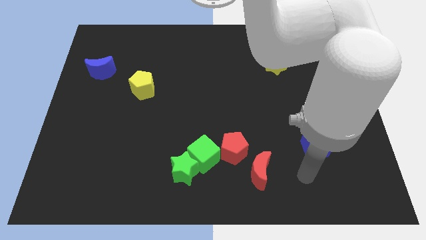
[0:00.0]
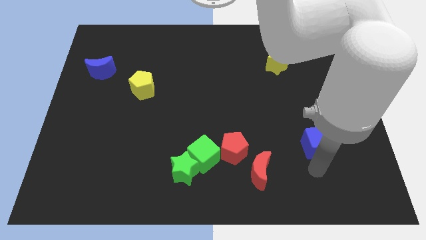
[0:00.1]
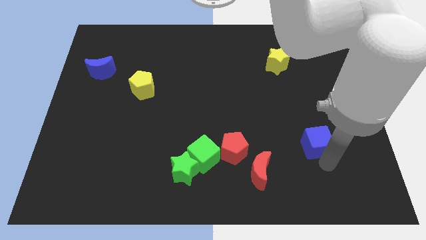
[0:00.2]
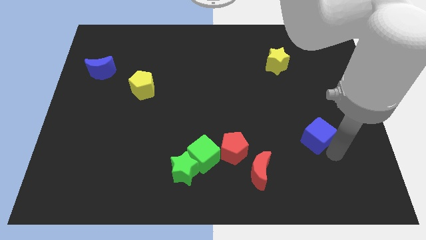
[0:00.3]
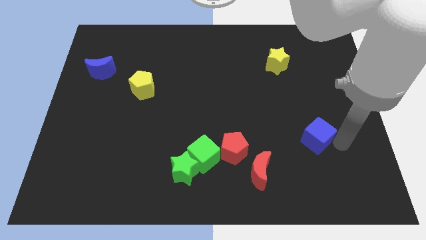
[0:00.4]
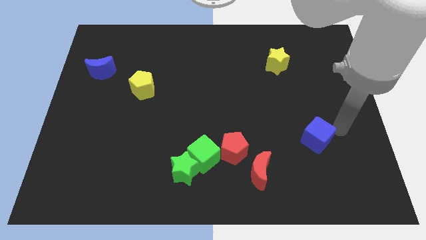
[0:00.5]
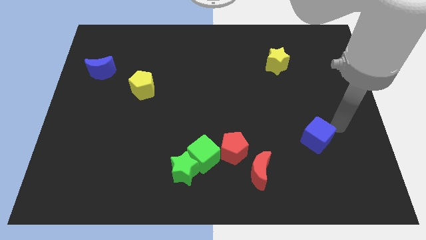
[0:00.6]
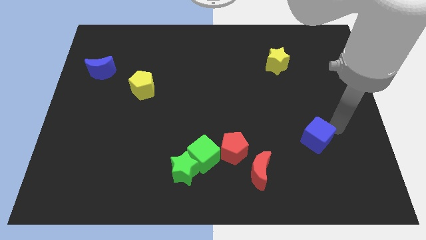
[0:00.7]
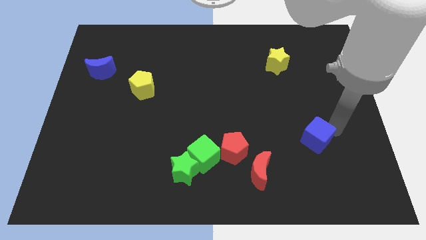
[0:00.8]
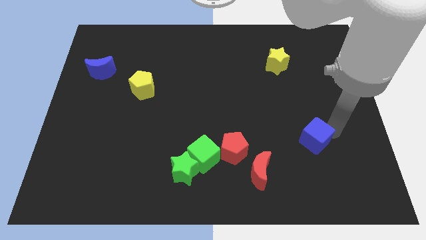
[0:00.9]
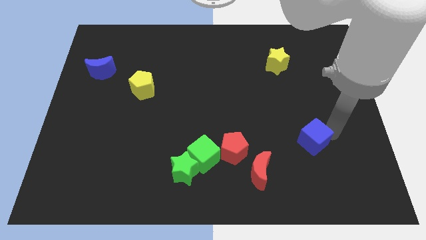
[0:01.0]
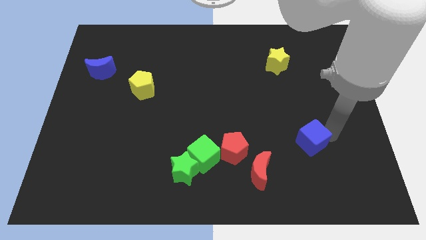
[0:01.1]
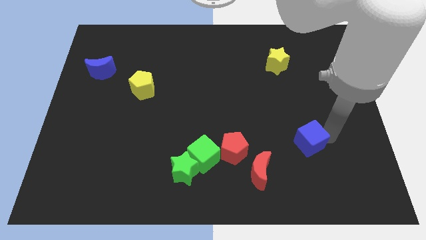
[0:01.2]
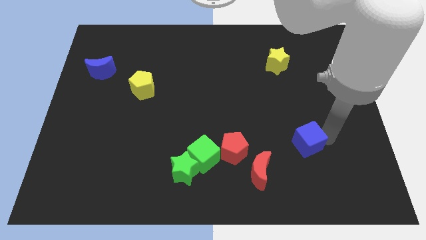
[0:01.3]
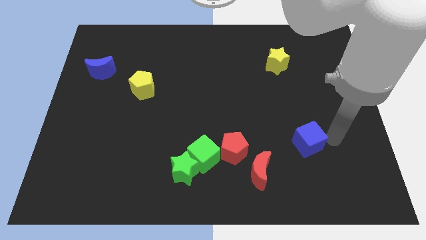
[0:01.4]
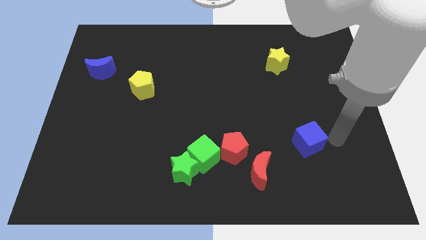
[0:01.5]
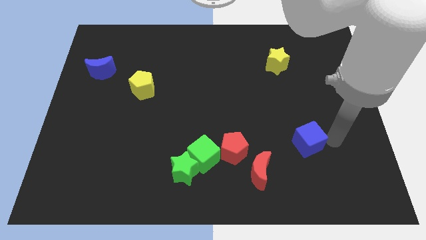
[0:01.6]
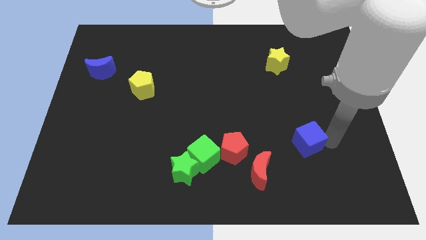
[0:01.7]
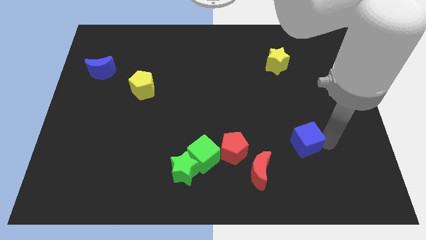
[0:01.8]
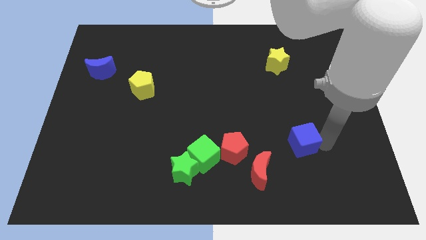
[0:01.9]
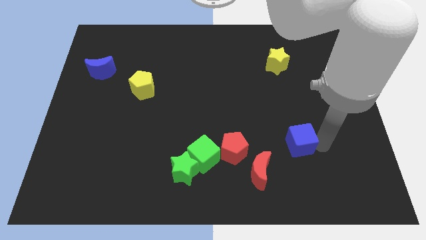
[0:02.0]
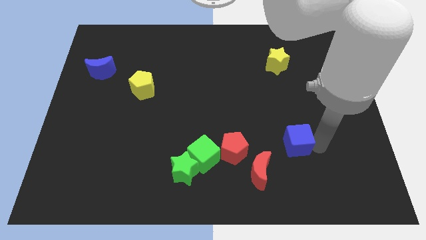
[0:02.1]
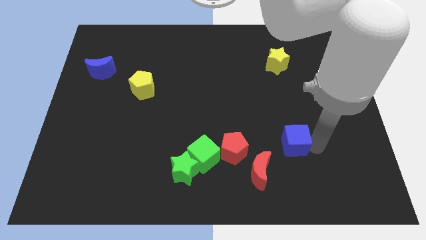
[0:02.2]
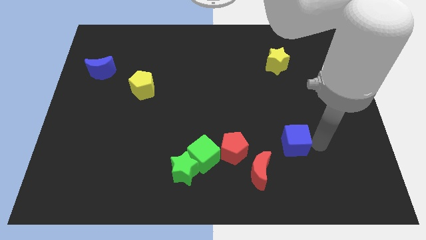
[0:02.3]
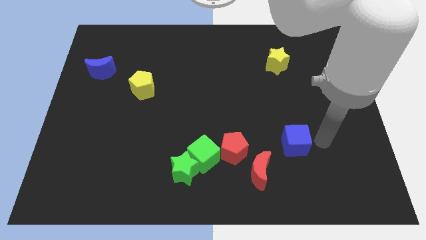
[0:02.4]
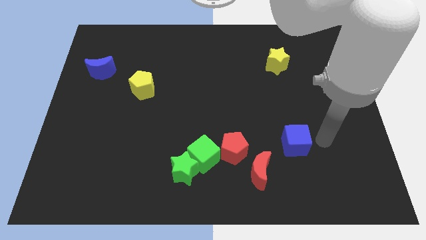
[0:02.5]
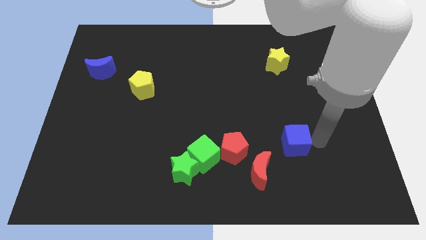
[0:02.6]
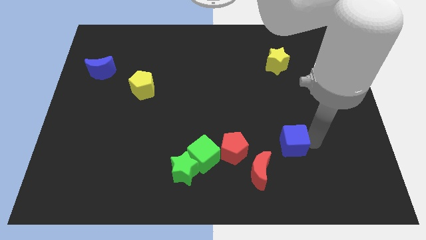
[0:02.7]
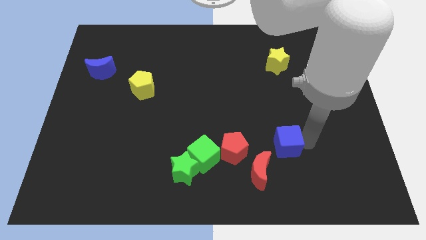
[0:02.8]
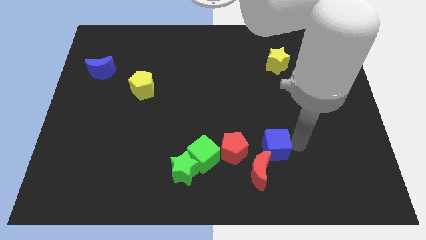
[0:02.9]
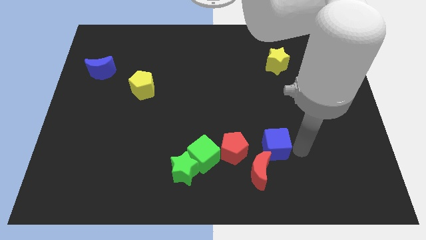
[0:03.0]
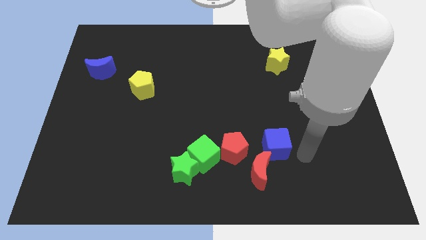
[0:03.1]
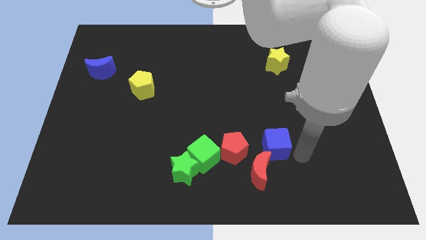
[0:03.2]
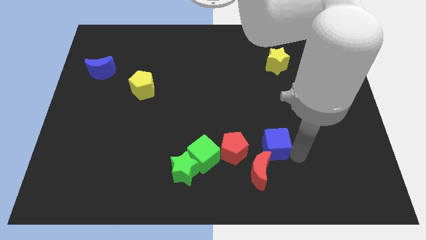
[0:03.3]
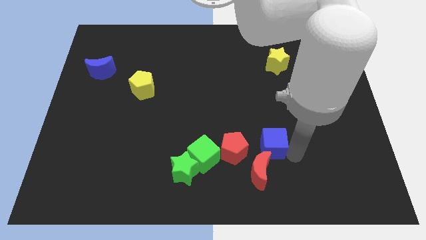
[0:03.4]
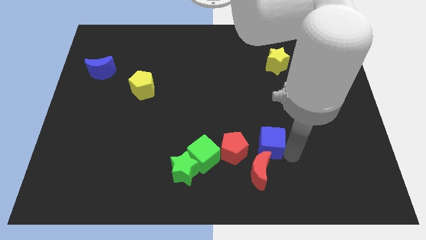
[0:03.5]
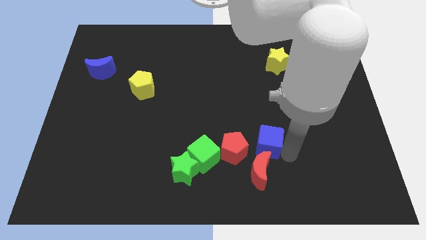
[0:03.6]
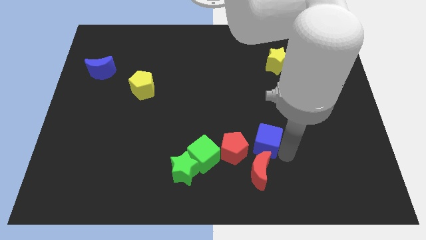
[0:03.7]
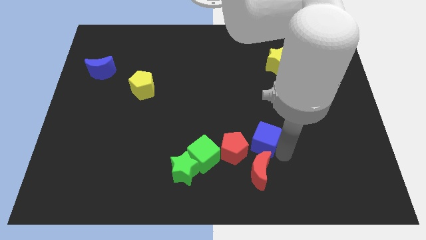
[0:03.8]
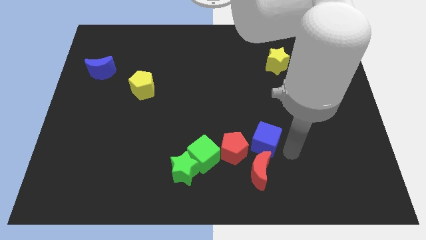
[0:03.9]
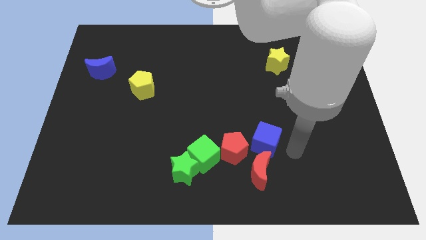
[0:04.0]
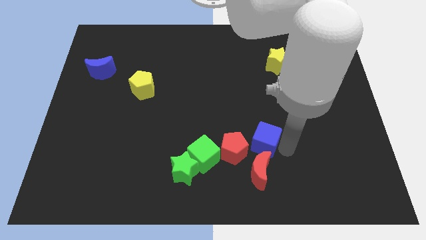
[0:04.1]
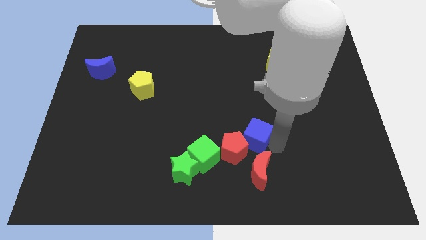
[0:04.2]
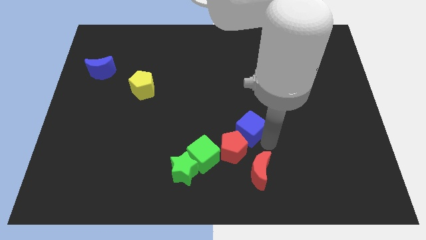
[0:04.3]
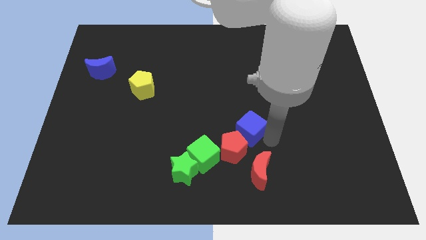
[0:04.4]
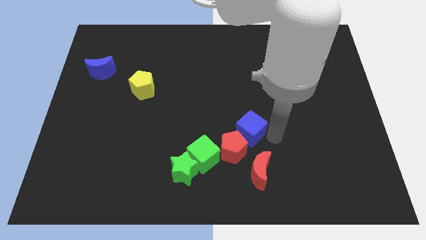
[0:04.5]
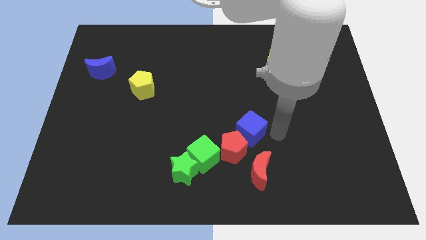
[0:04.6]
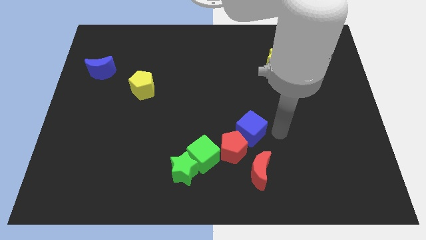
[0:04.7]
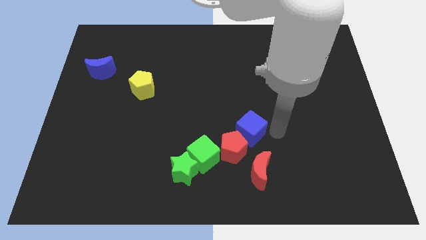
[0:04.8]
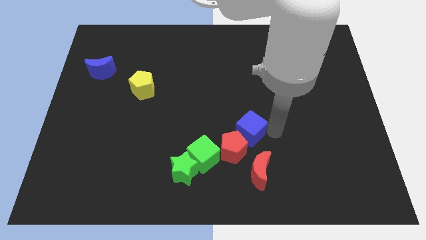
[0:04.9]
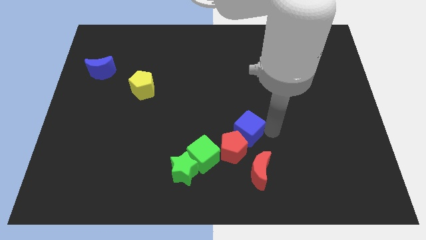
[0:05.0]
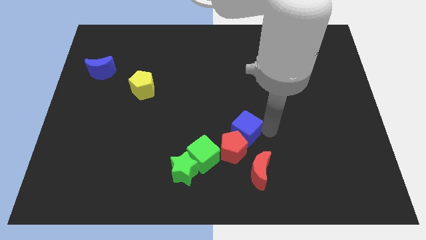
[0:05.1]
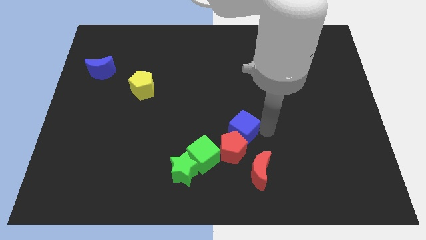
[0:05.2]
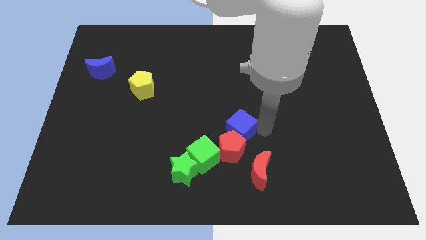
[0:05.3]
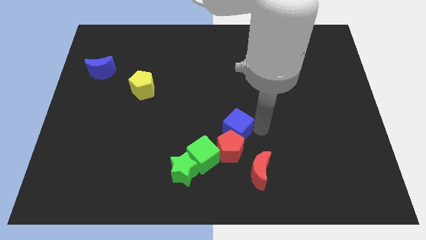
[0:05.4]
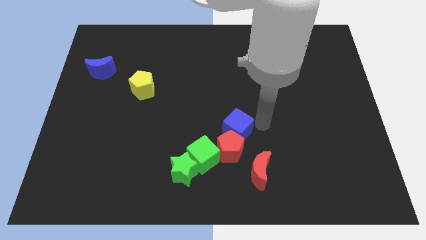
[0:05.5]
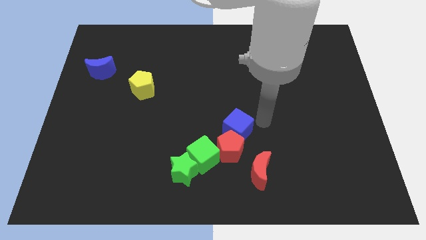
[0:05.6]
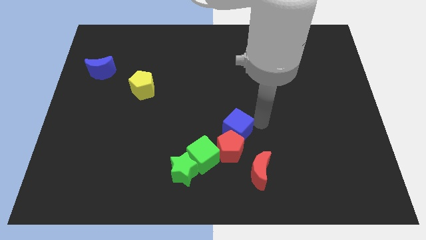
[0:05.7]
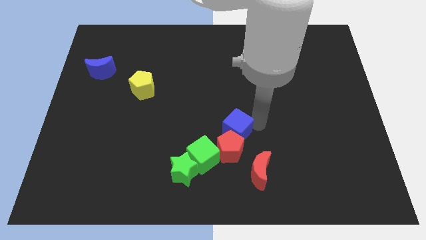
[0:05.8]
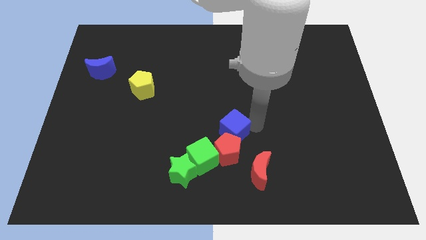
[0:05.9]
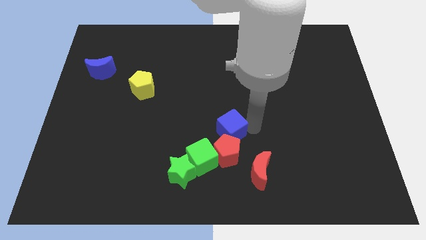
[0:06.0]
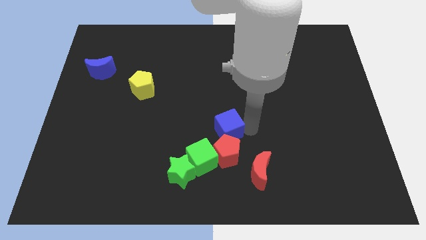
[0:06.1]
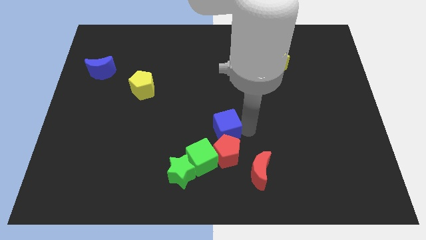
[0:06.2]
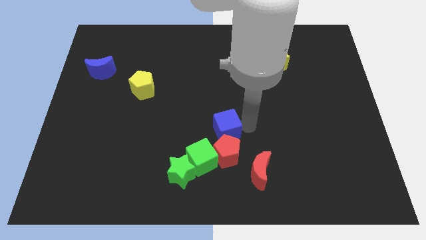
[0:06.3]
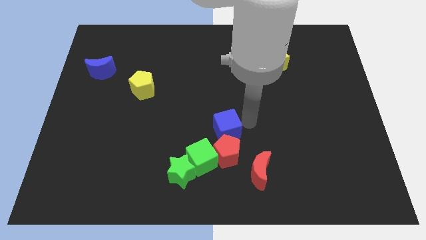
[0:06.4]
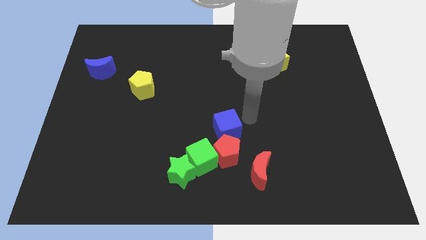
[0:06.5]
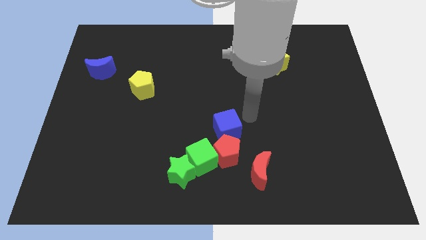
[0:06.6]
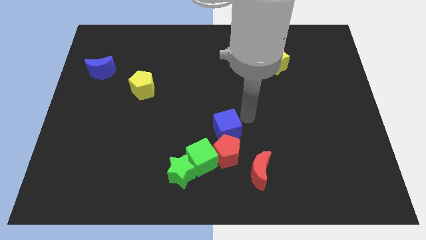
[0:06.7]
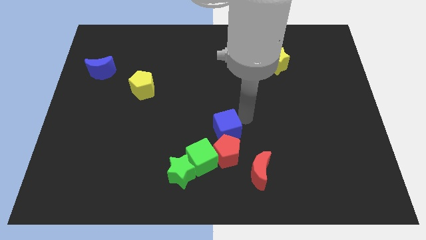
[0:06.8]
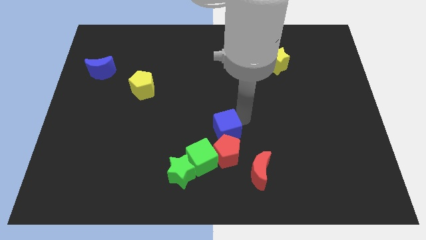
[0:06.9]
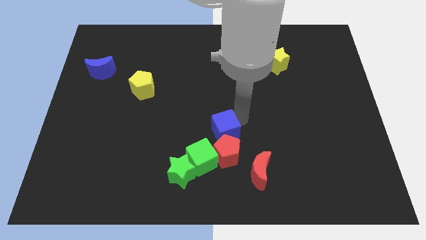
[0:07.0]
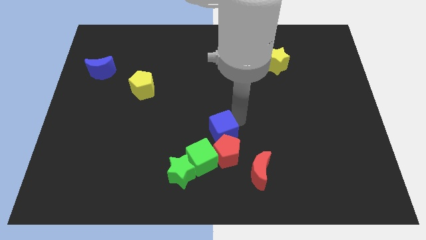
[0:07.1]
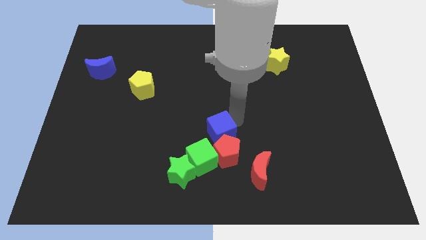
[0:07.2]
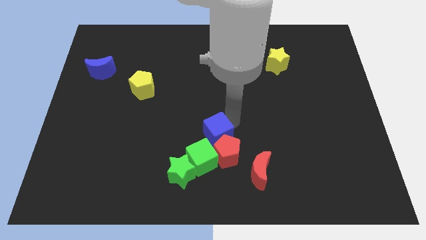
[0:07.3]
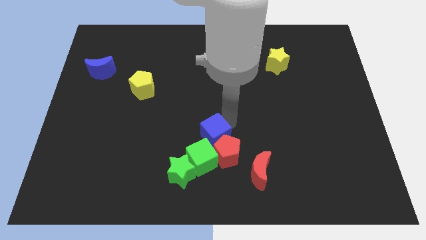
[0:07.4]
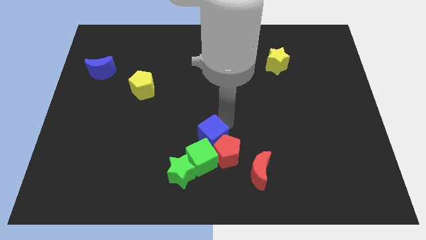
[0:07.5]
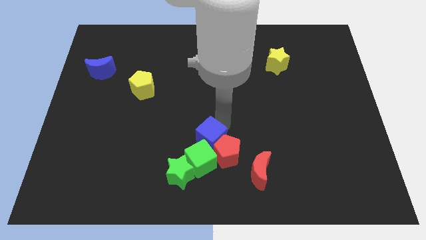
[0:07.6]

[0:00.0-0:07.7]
push the blue cube towards the green cube
